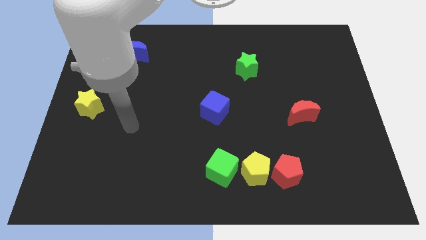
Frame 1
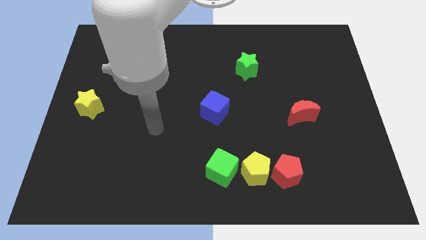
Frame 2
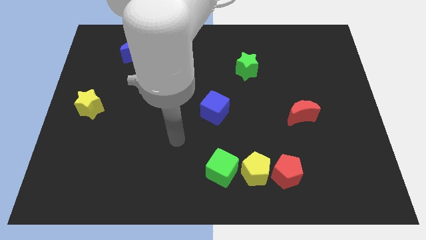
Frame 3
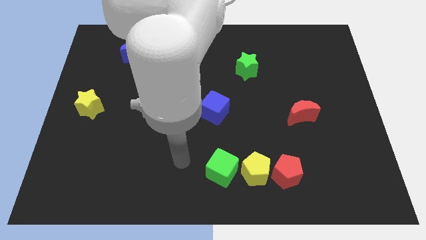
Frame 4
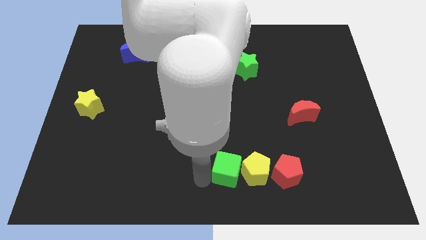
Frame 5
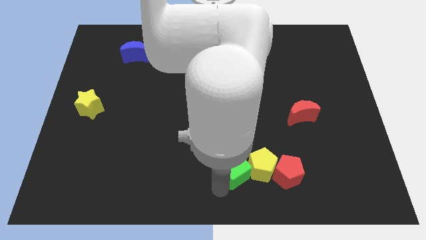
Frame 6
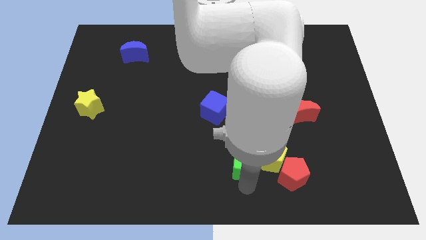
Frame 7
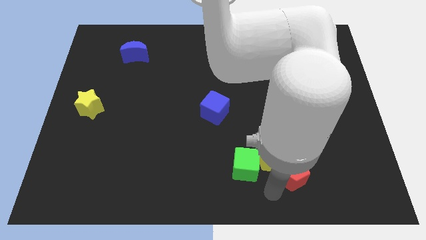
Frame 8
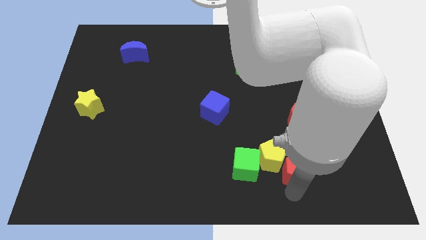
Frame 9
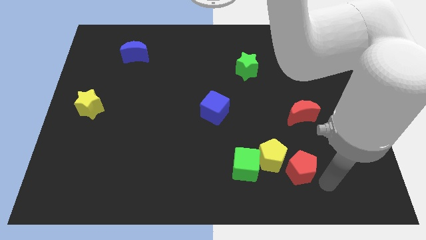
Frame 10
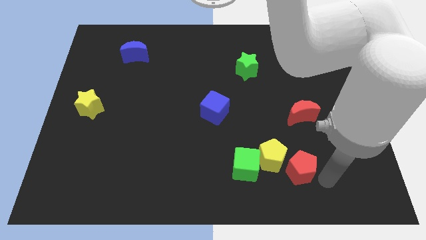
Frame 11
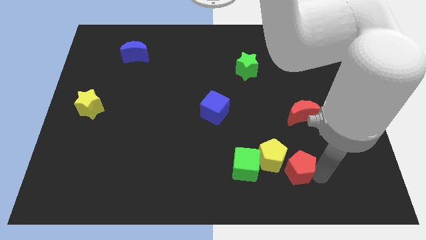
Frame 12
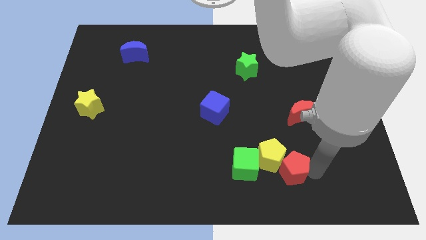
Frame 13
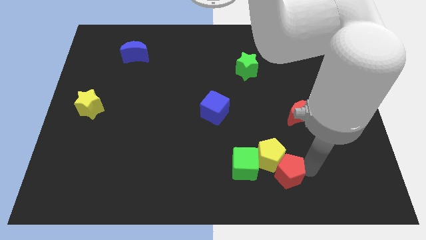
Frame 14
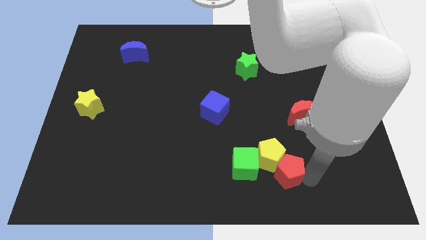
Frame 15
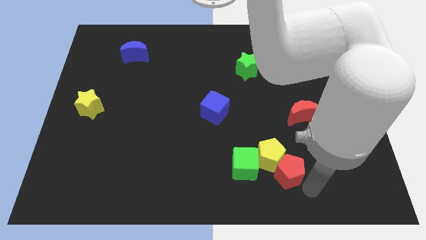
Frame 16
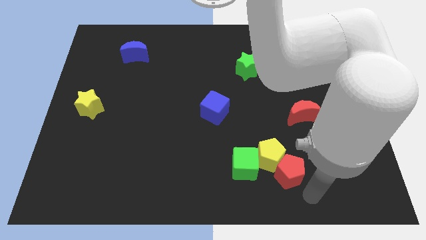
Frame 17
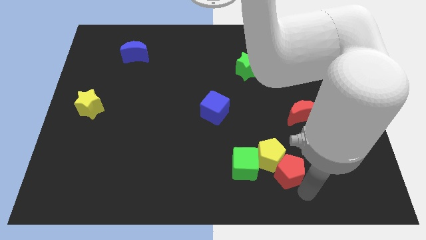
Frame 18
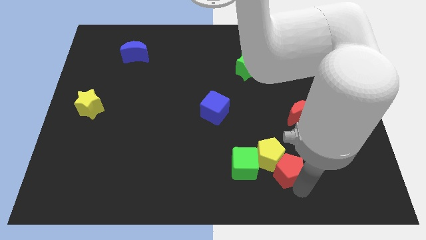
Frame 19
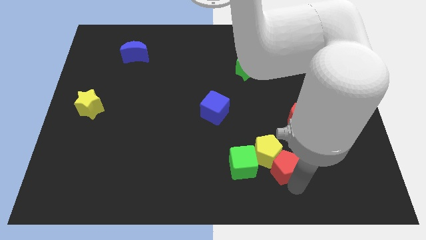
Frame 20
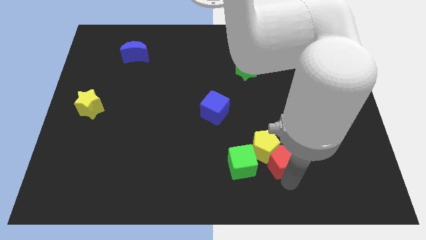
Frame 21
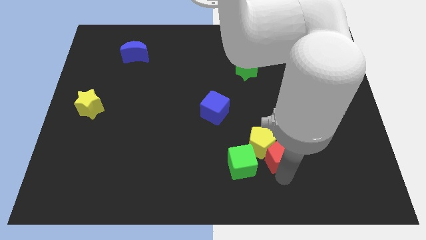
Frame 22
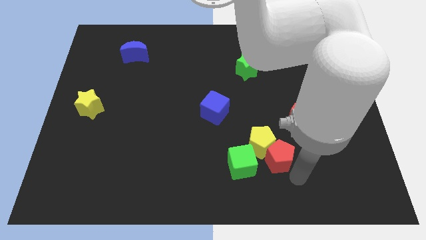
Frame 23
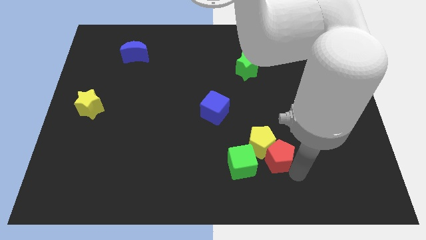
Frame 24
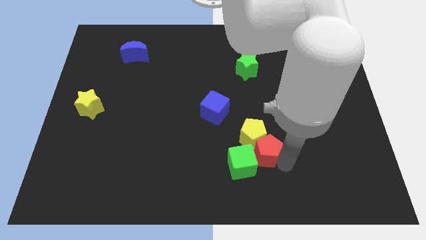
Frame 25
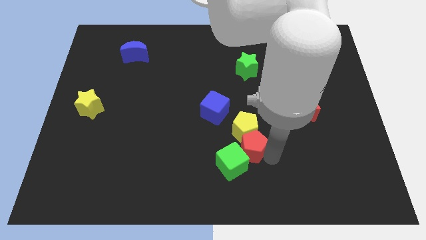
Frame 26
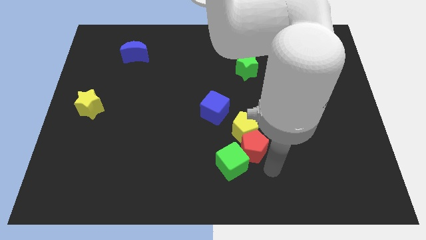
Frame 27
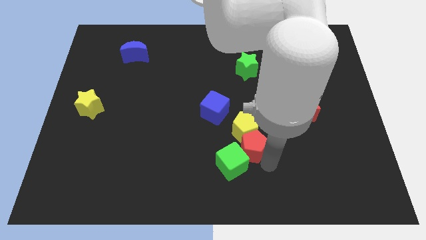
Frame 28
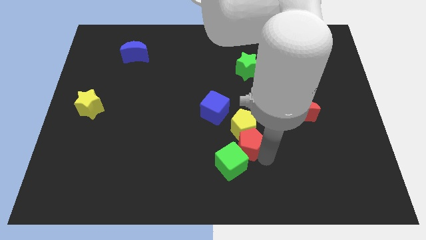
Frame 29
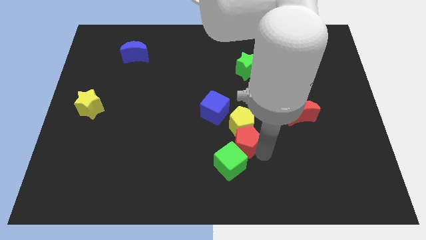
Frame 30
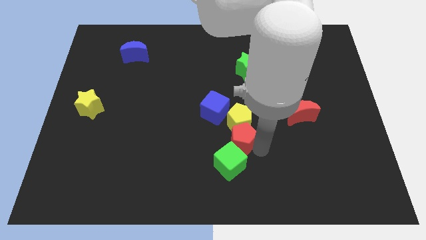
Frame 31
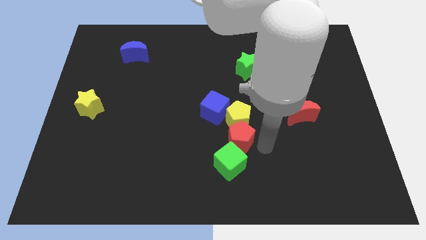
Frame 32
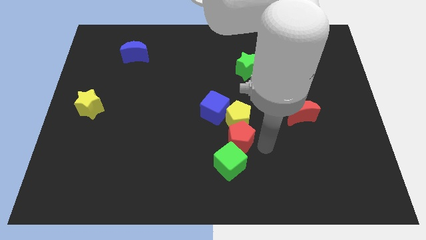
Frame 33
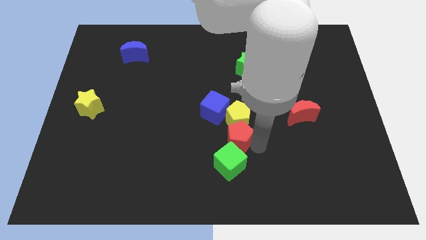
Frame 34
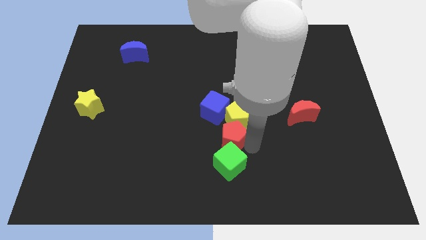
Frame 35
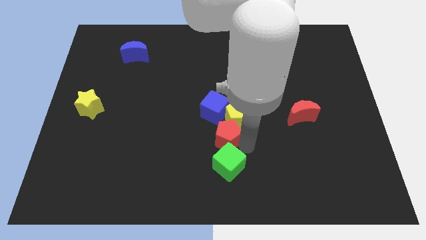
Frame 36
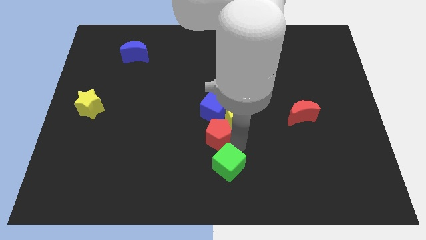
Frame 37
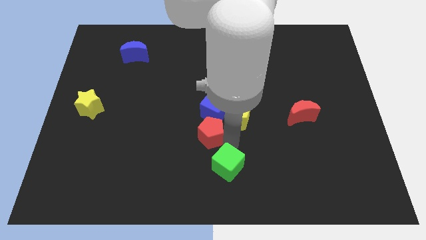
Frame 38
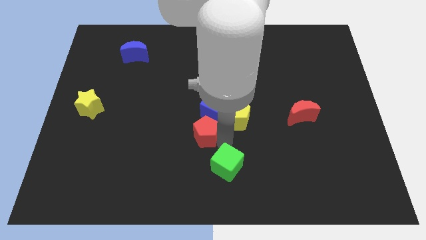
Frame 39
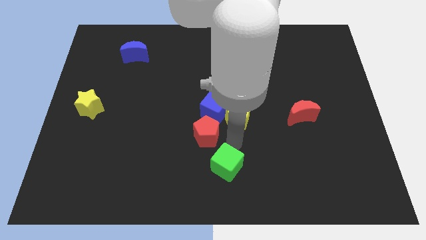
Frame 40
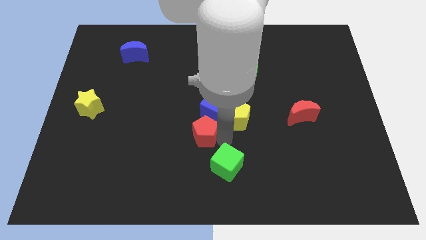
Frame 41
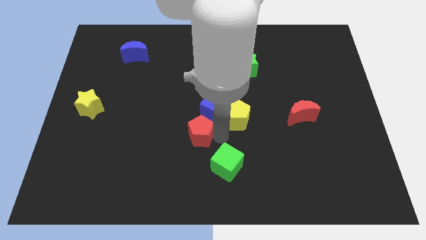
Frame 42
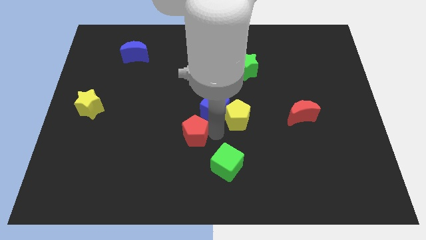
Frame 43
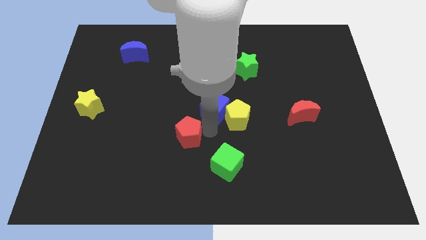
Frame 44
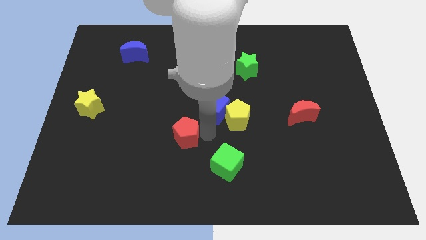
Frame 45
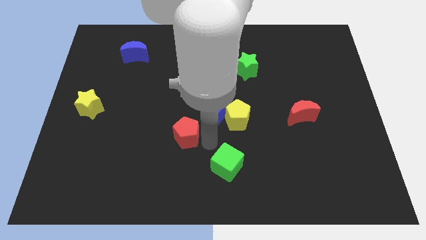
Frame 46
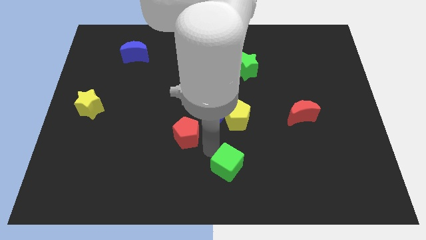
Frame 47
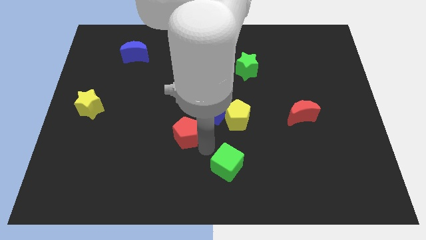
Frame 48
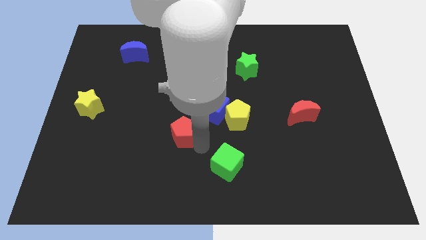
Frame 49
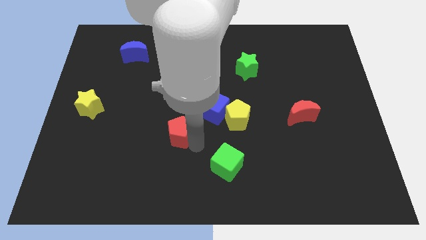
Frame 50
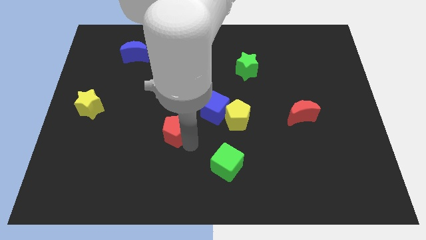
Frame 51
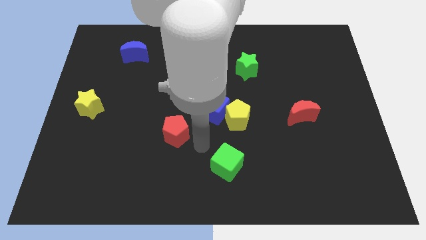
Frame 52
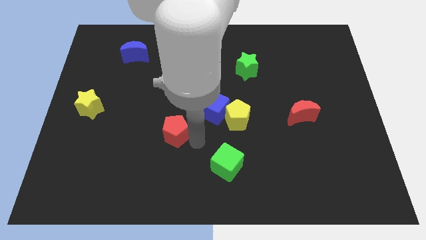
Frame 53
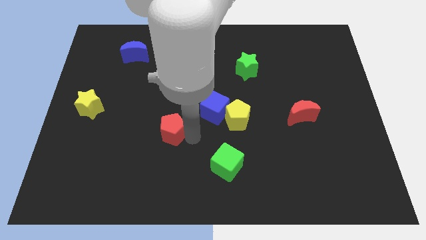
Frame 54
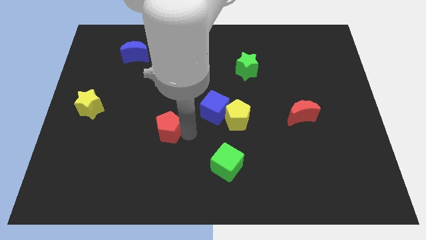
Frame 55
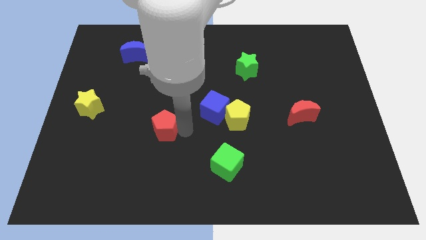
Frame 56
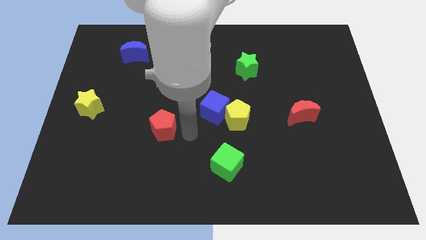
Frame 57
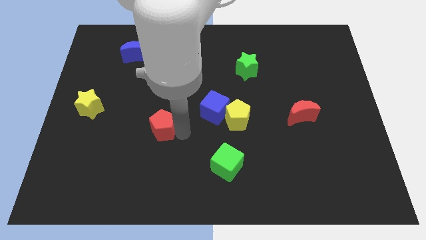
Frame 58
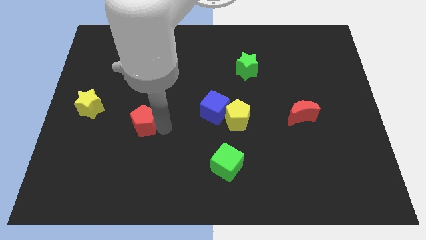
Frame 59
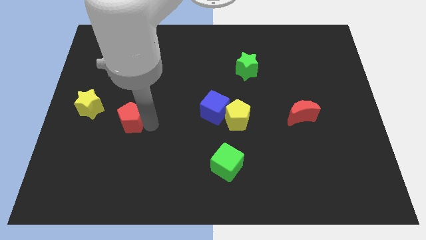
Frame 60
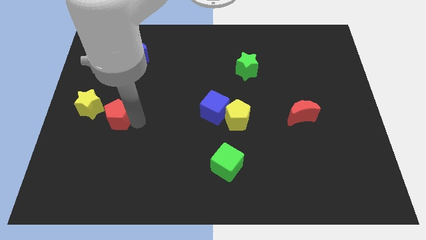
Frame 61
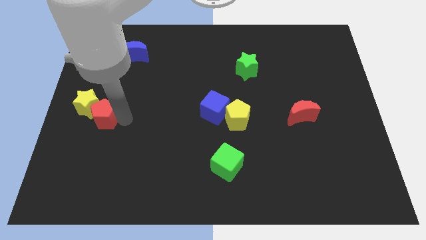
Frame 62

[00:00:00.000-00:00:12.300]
push the red pentagon towards the yellow star

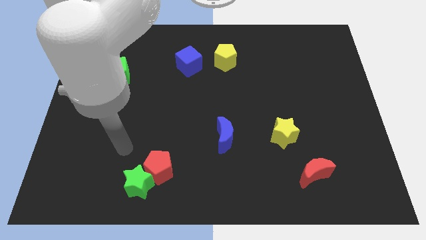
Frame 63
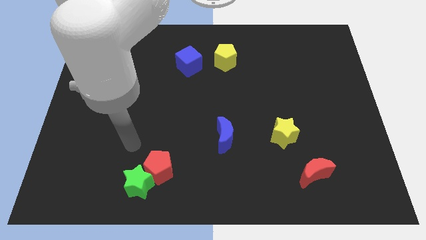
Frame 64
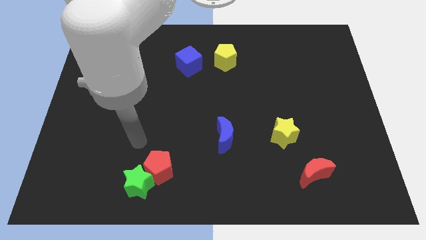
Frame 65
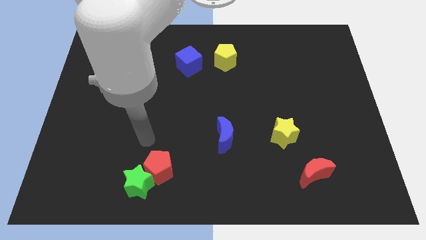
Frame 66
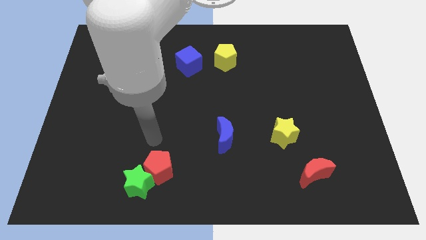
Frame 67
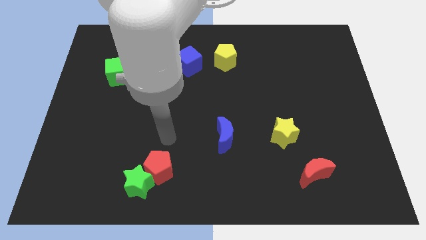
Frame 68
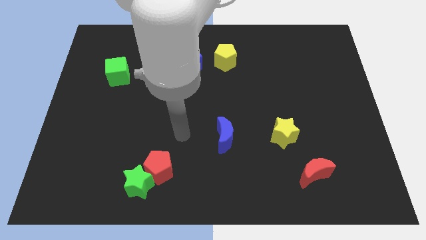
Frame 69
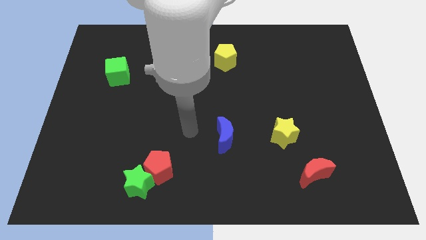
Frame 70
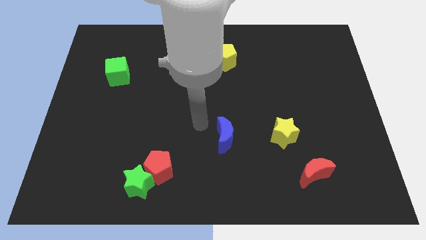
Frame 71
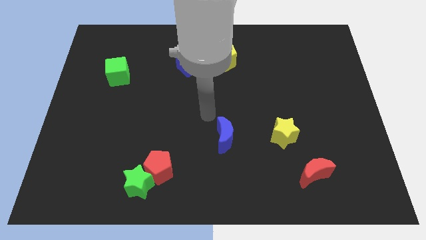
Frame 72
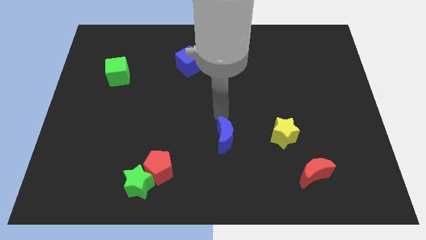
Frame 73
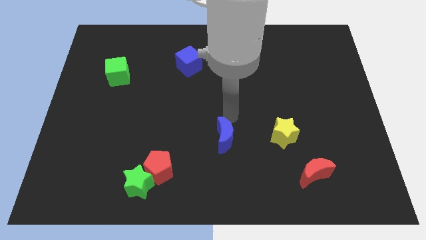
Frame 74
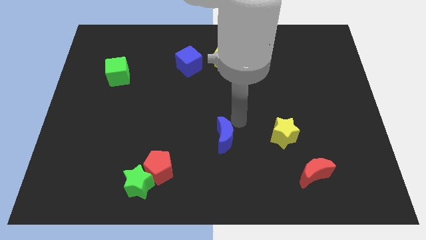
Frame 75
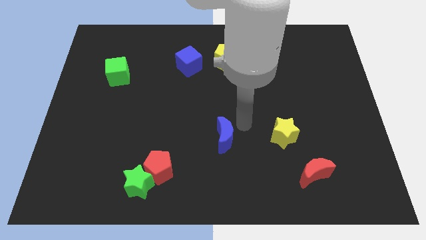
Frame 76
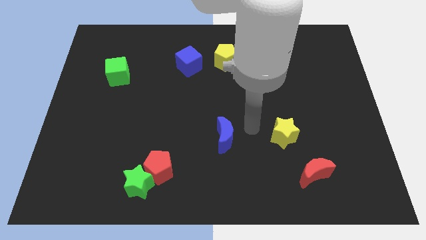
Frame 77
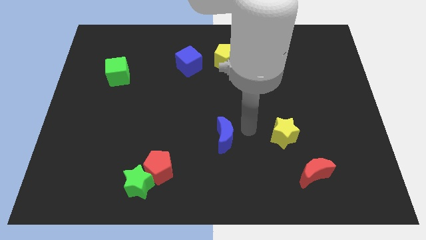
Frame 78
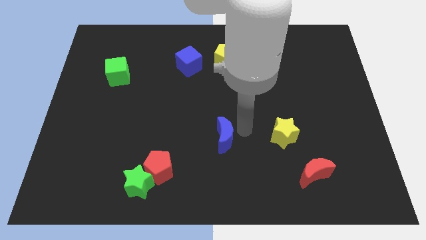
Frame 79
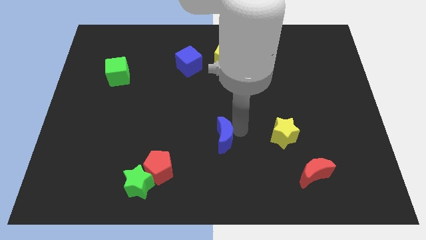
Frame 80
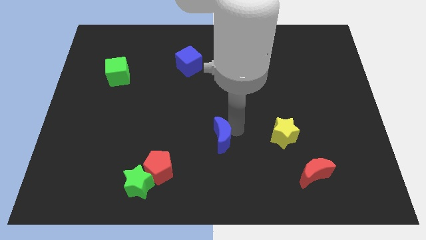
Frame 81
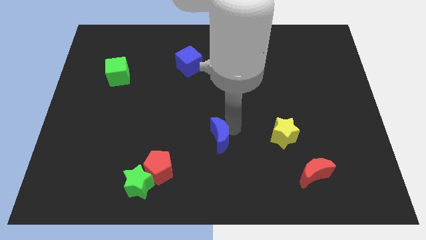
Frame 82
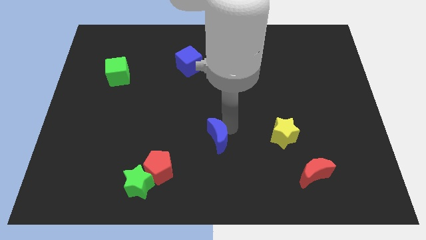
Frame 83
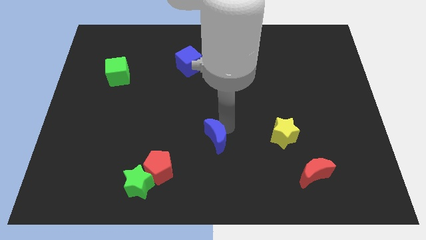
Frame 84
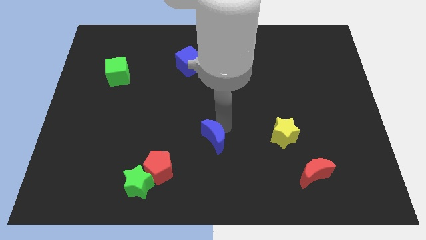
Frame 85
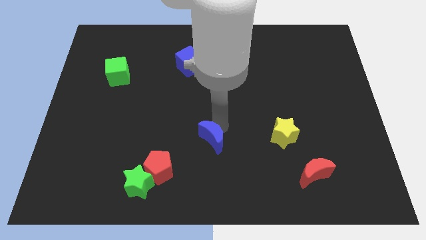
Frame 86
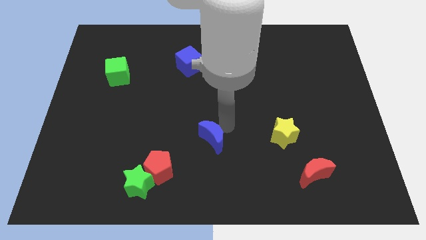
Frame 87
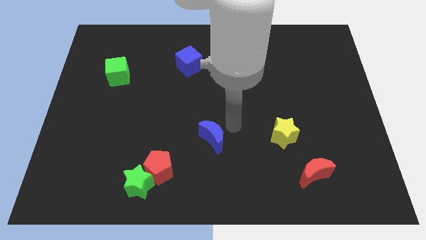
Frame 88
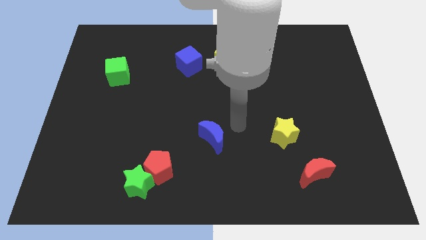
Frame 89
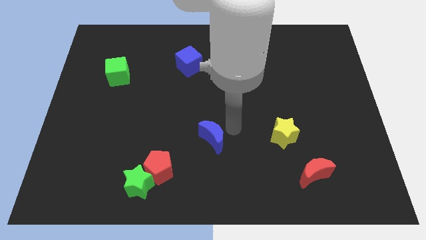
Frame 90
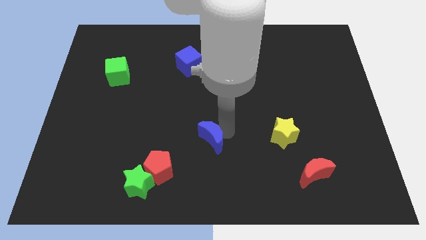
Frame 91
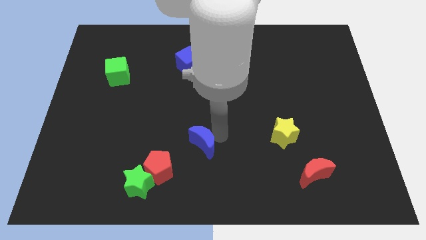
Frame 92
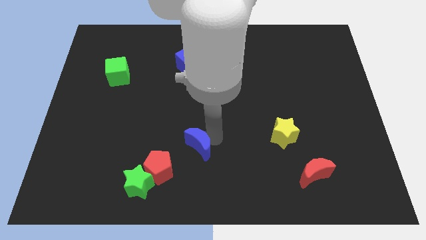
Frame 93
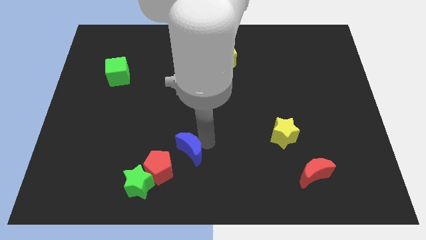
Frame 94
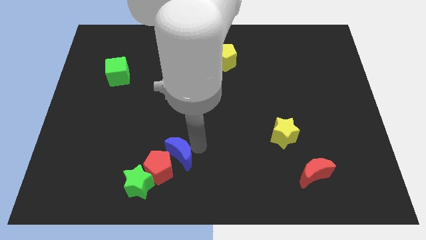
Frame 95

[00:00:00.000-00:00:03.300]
put the blue moon close to the red pentagon
